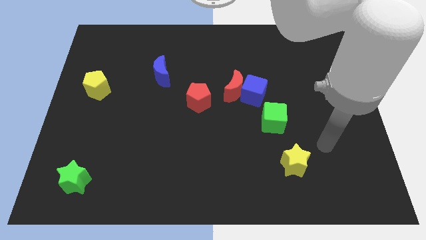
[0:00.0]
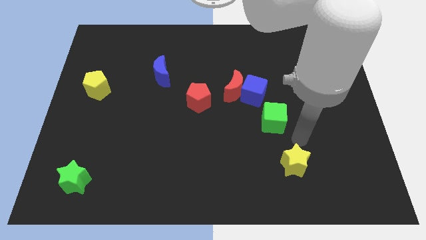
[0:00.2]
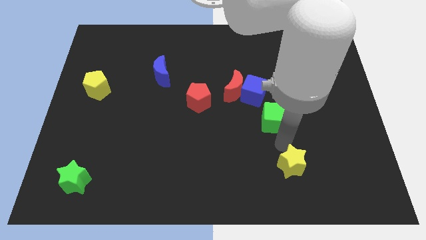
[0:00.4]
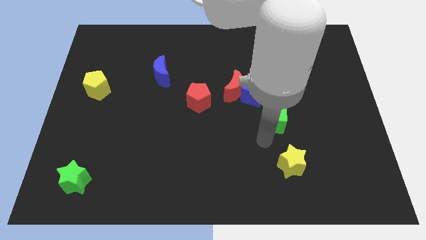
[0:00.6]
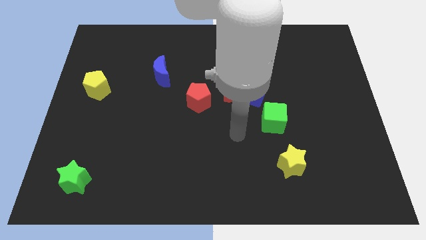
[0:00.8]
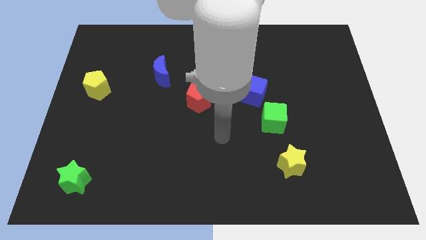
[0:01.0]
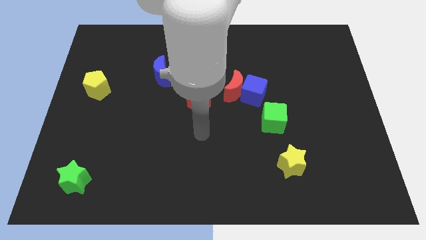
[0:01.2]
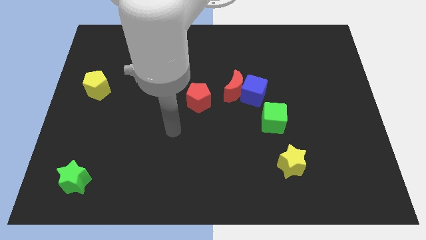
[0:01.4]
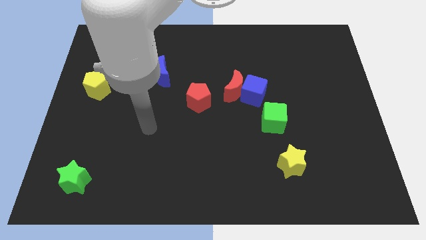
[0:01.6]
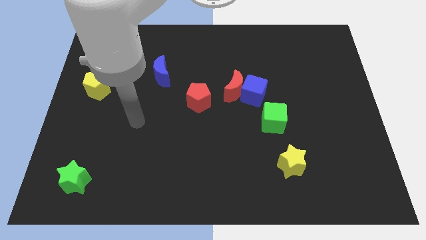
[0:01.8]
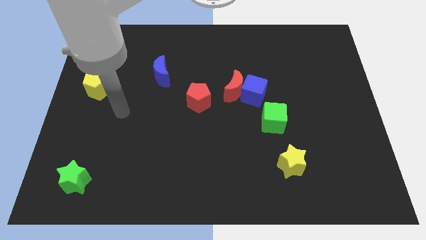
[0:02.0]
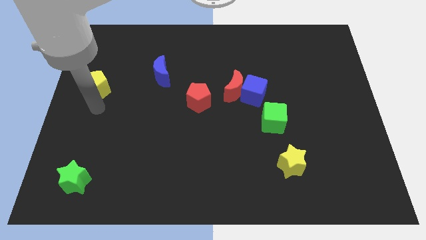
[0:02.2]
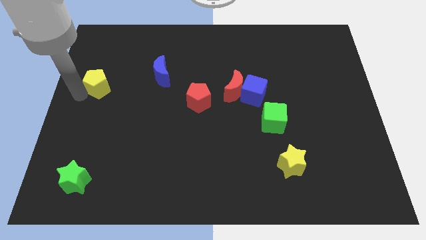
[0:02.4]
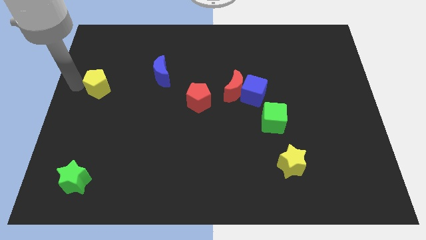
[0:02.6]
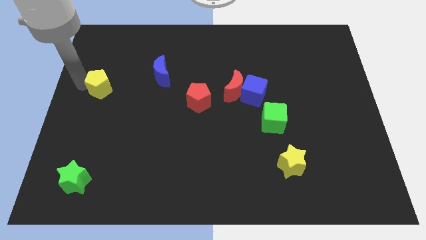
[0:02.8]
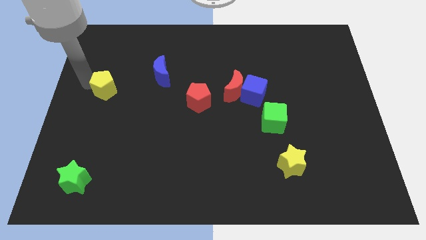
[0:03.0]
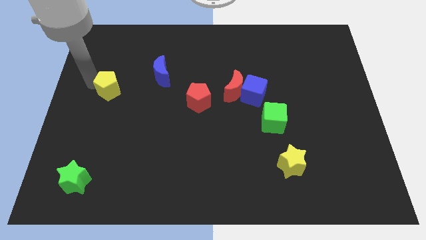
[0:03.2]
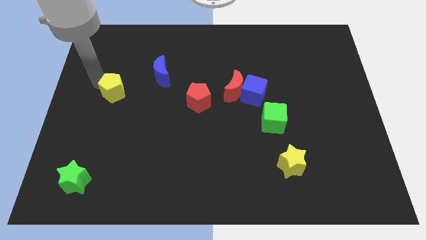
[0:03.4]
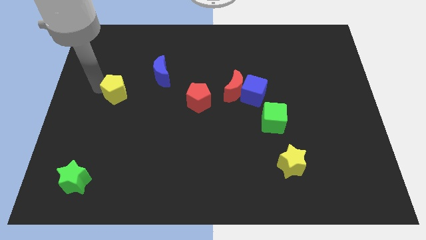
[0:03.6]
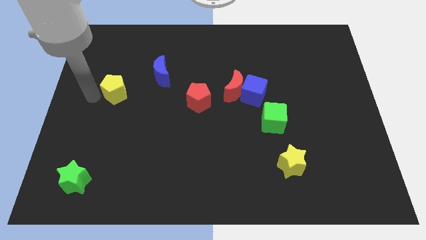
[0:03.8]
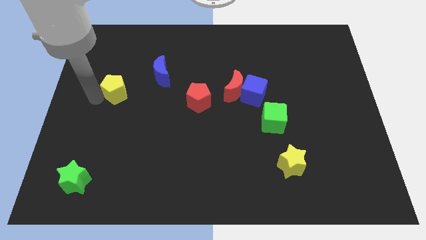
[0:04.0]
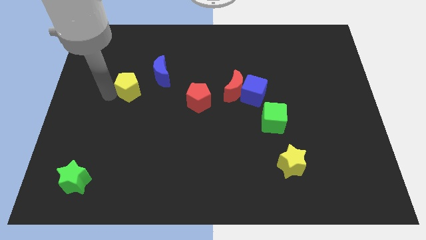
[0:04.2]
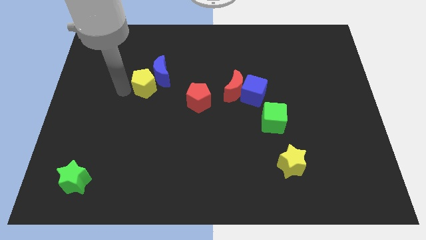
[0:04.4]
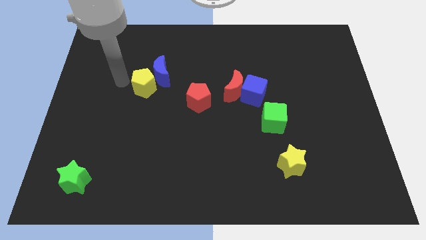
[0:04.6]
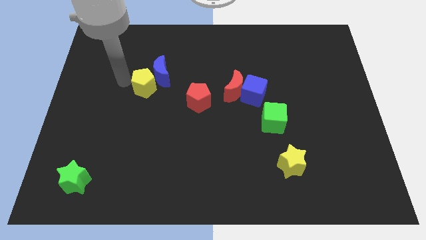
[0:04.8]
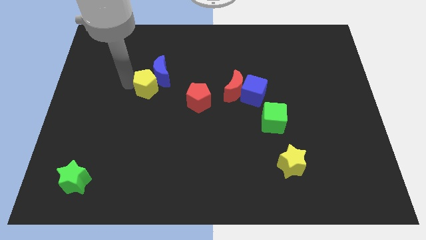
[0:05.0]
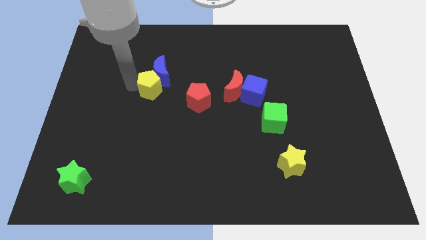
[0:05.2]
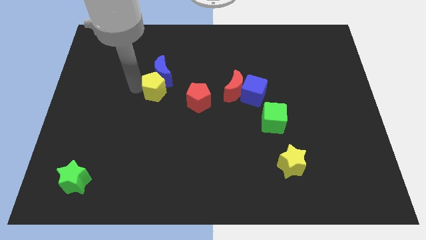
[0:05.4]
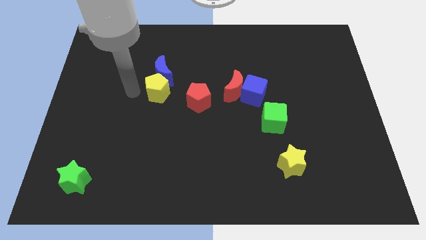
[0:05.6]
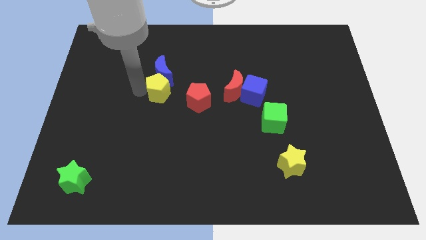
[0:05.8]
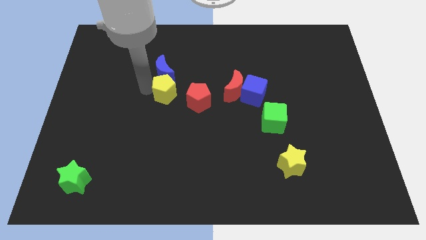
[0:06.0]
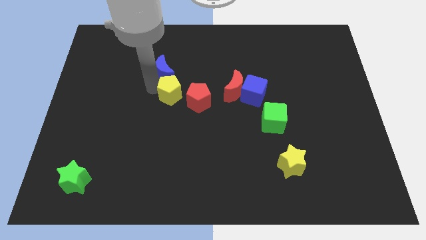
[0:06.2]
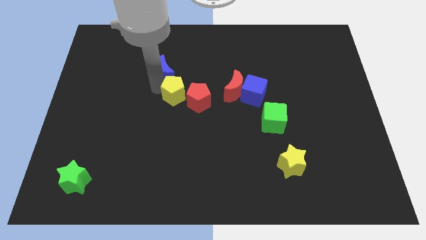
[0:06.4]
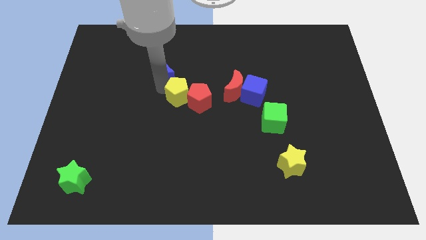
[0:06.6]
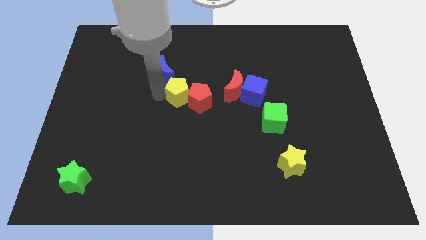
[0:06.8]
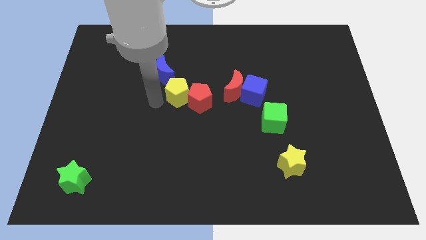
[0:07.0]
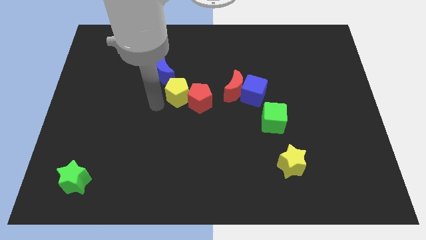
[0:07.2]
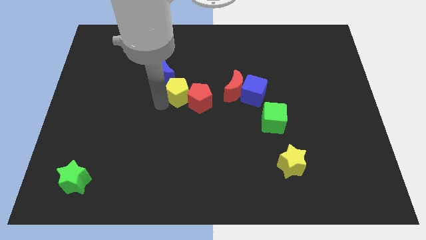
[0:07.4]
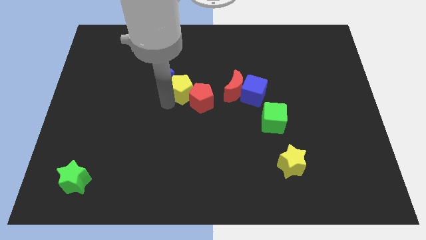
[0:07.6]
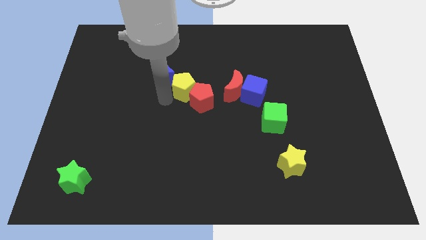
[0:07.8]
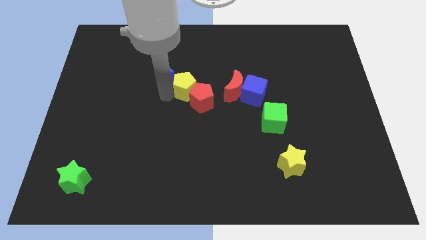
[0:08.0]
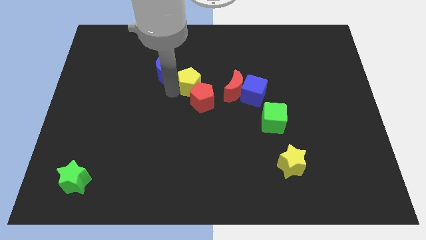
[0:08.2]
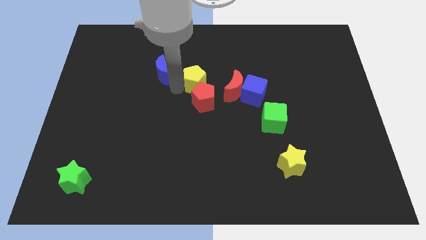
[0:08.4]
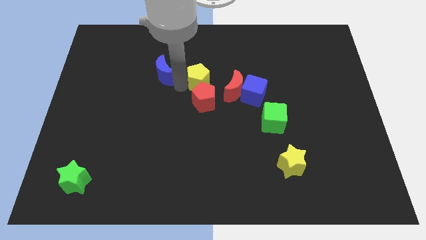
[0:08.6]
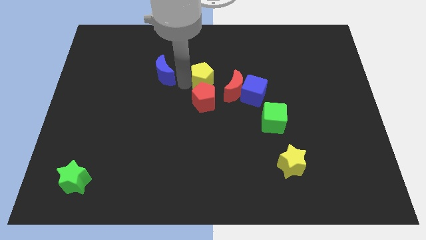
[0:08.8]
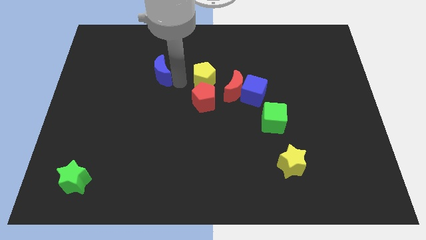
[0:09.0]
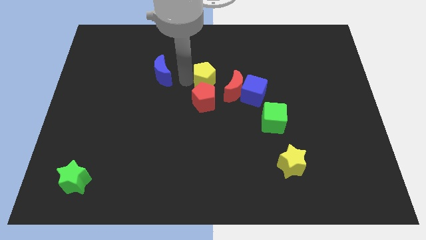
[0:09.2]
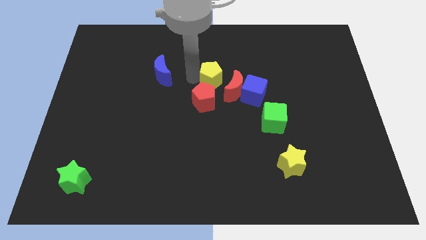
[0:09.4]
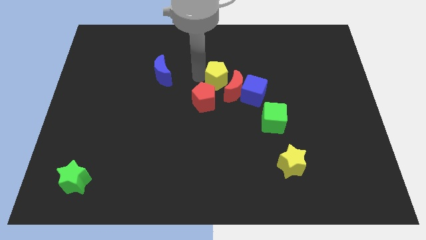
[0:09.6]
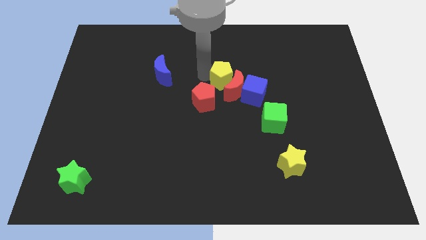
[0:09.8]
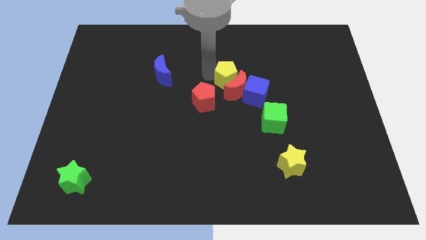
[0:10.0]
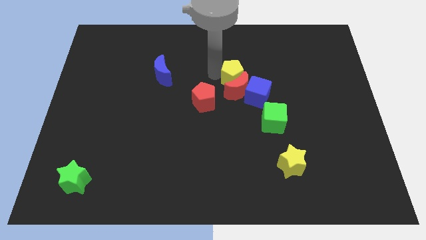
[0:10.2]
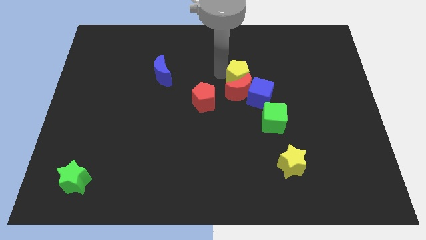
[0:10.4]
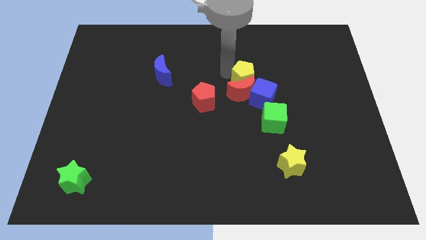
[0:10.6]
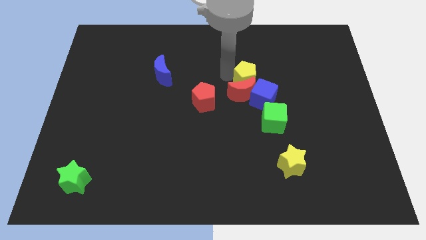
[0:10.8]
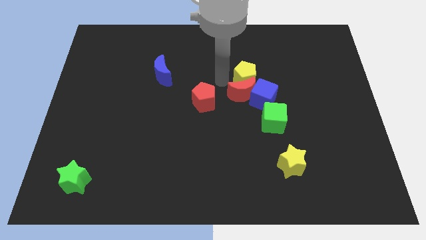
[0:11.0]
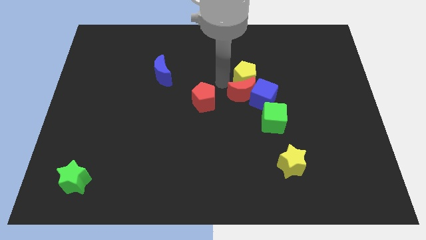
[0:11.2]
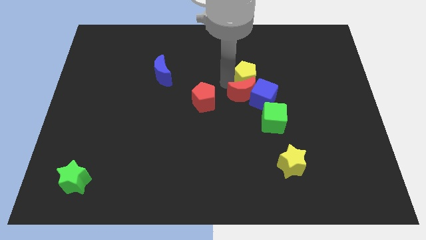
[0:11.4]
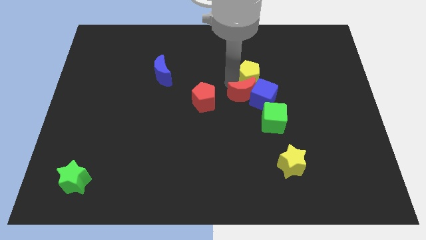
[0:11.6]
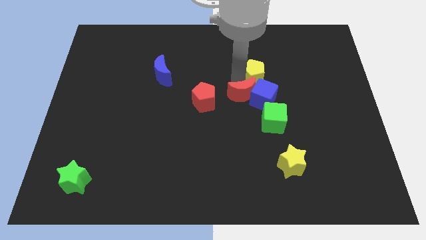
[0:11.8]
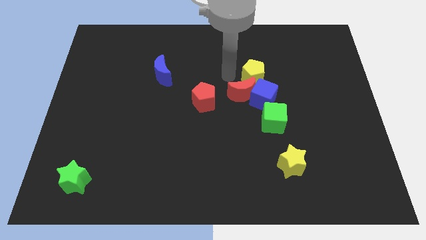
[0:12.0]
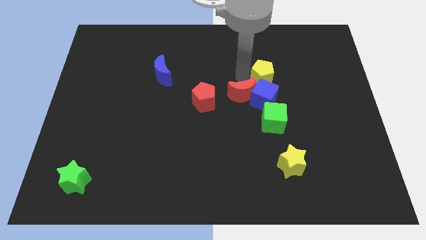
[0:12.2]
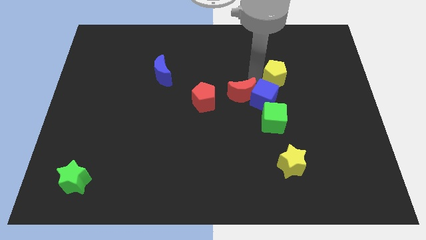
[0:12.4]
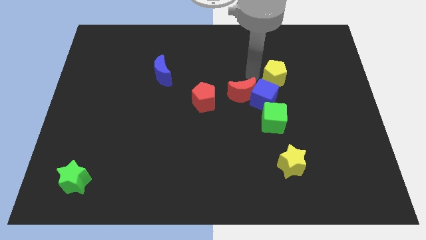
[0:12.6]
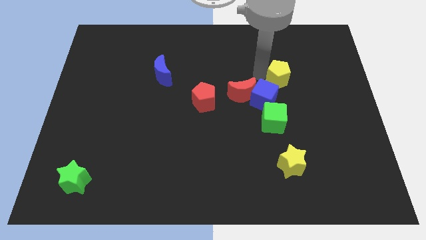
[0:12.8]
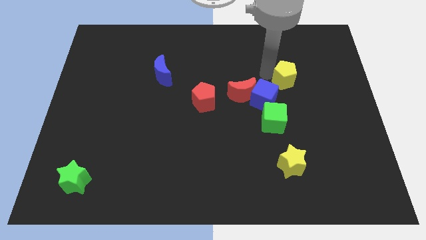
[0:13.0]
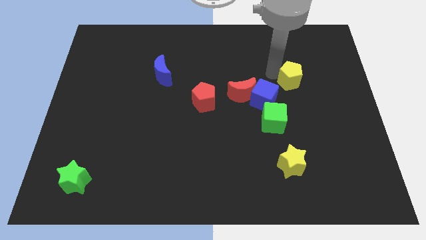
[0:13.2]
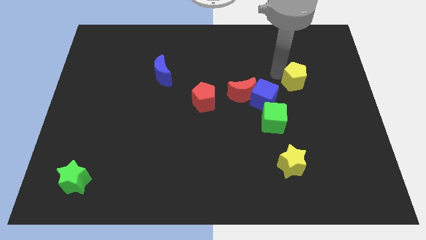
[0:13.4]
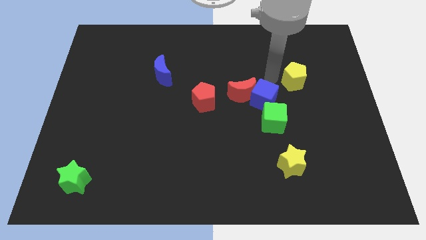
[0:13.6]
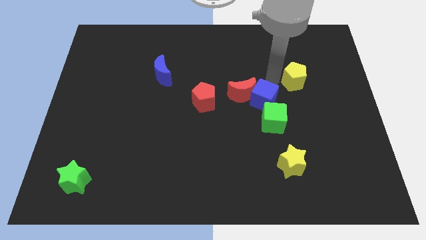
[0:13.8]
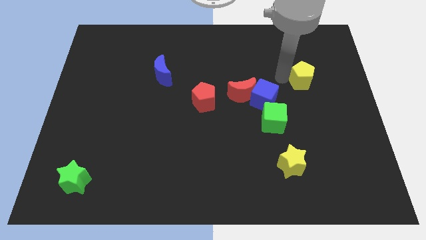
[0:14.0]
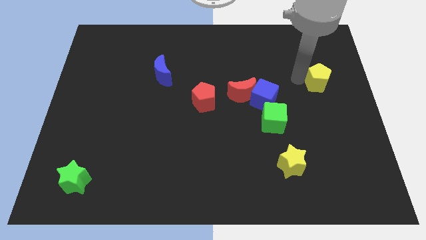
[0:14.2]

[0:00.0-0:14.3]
slide the yellow pentagon to the right side
